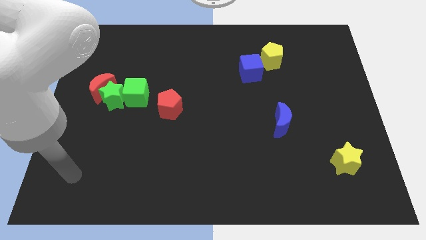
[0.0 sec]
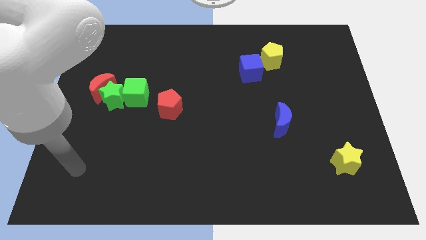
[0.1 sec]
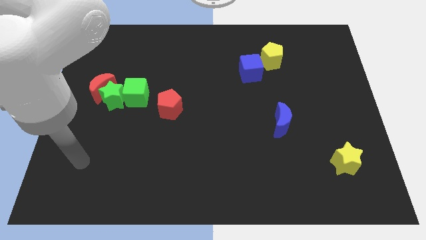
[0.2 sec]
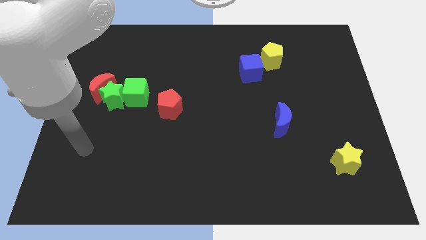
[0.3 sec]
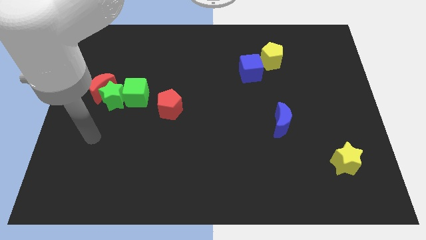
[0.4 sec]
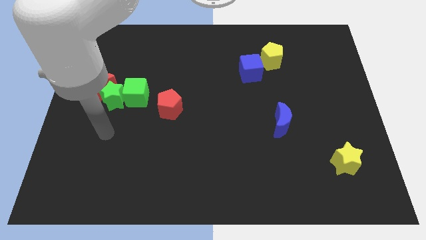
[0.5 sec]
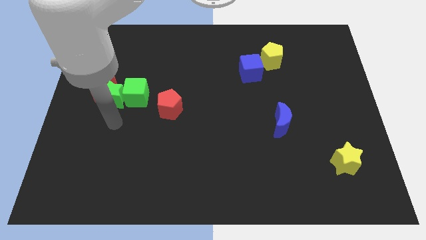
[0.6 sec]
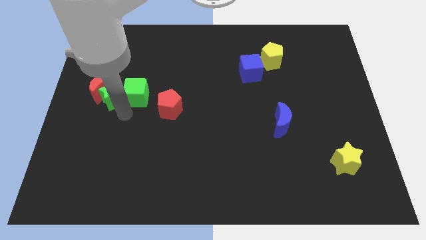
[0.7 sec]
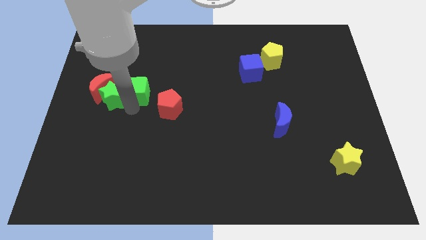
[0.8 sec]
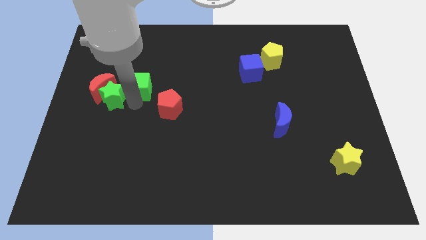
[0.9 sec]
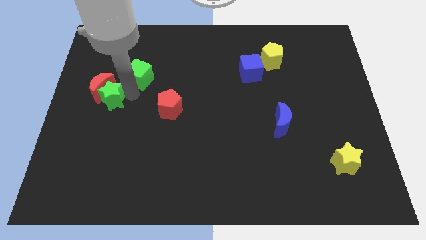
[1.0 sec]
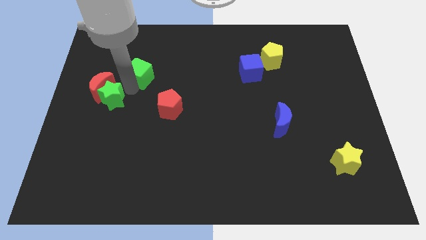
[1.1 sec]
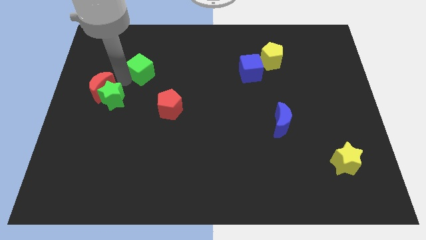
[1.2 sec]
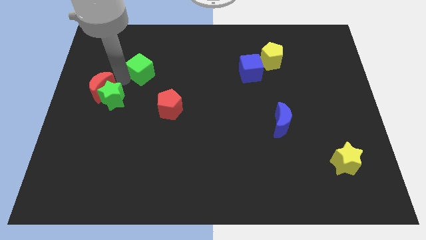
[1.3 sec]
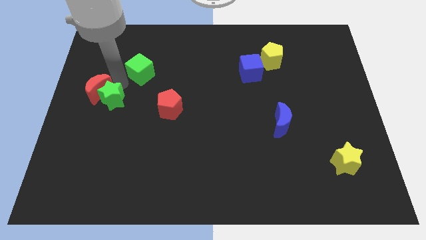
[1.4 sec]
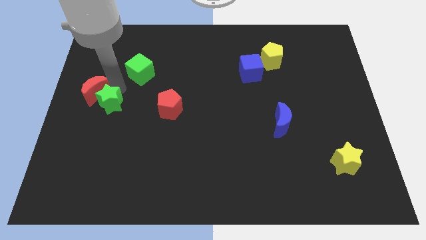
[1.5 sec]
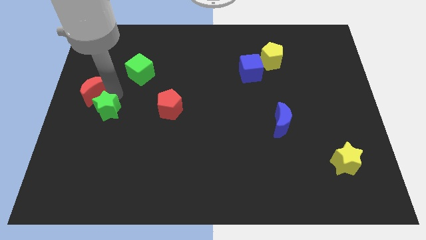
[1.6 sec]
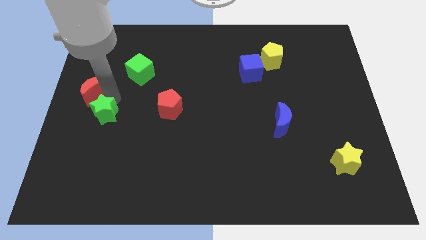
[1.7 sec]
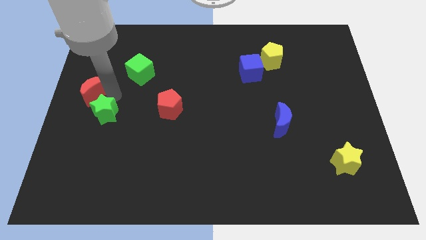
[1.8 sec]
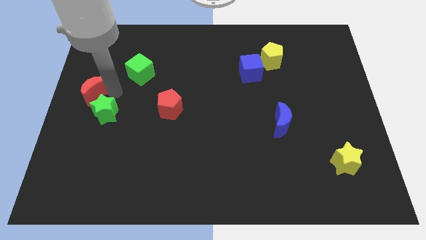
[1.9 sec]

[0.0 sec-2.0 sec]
move the green star away from the red moon and green cube

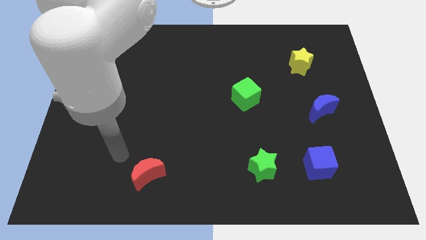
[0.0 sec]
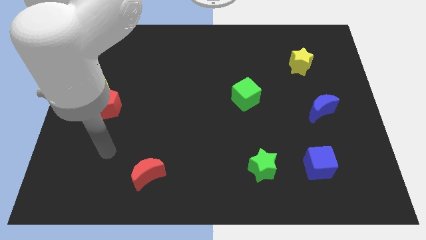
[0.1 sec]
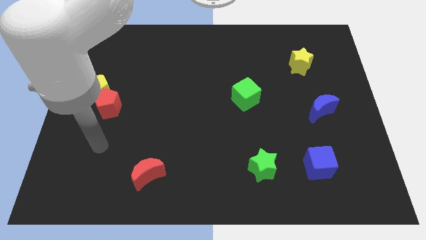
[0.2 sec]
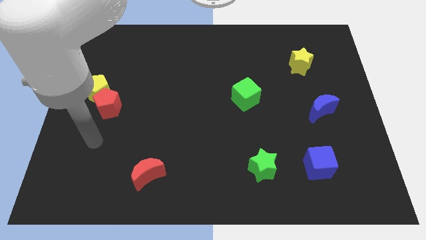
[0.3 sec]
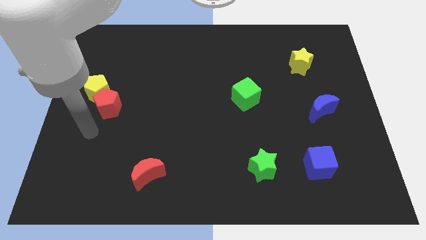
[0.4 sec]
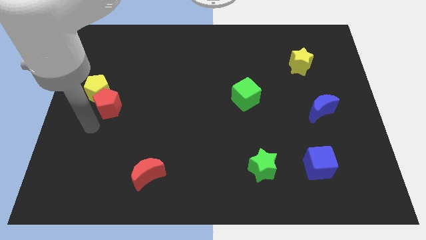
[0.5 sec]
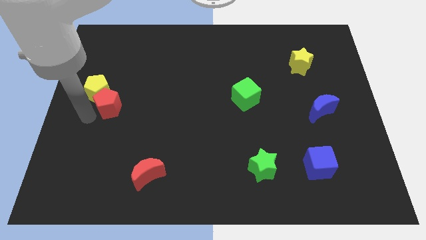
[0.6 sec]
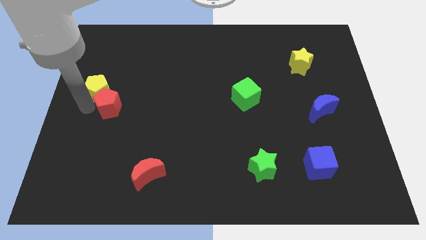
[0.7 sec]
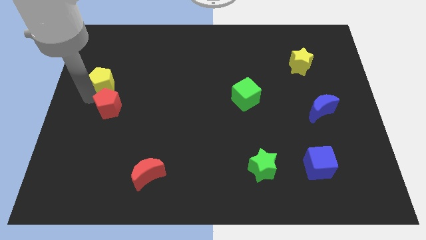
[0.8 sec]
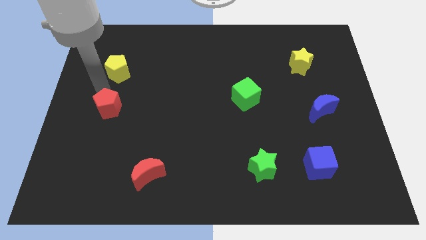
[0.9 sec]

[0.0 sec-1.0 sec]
separate the red pentagon from the yellow pentagon

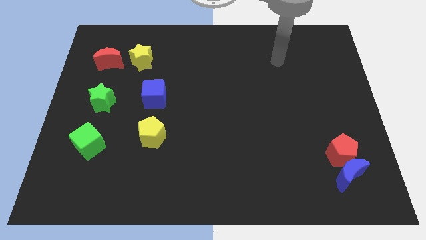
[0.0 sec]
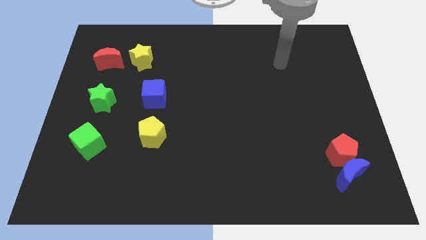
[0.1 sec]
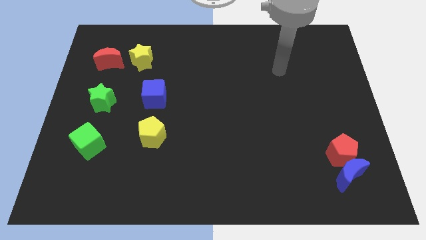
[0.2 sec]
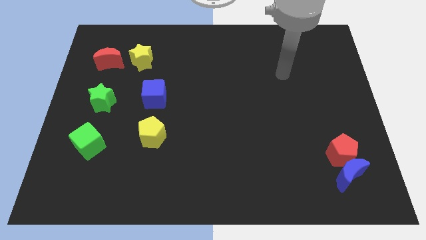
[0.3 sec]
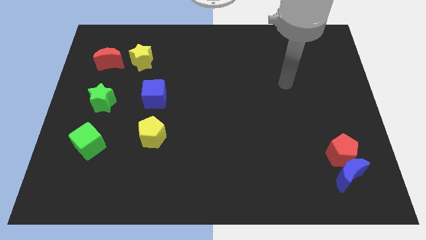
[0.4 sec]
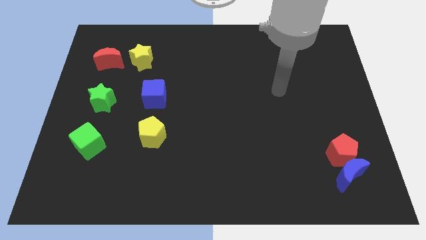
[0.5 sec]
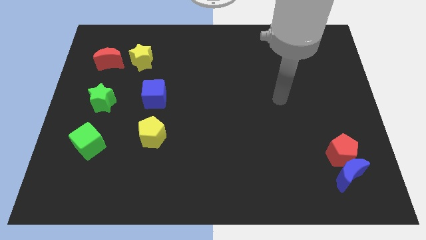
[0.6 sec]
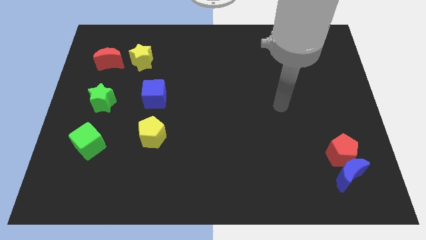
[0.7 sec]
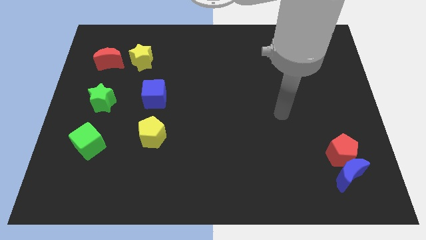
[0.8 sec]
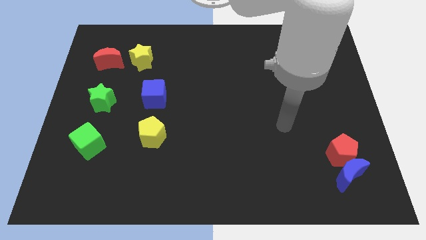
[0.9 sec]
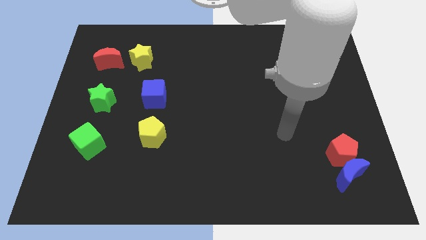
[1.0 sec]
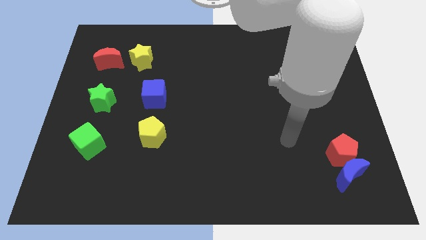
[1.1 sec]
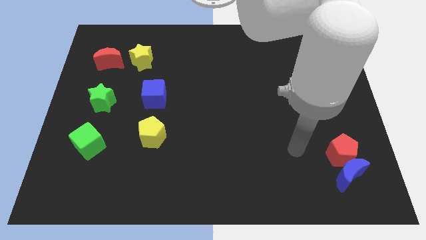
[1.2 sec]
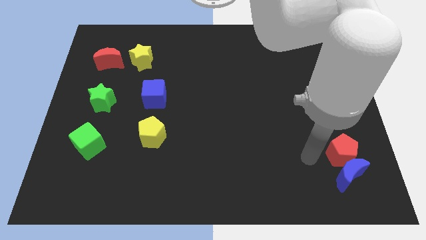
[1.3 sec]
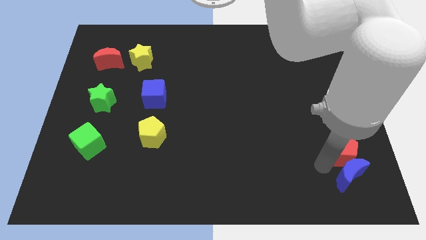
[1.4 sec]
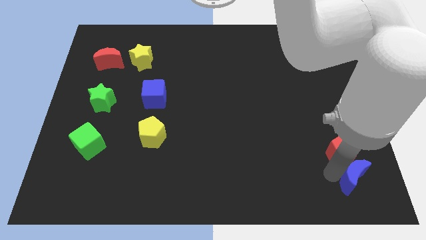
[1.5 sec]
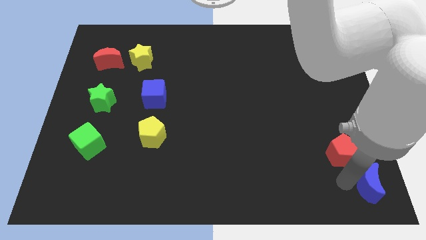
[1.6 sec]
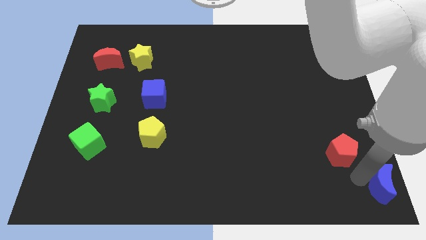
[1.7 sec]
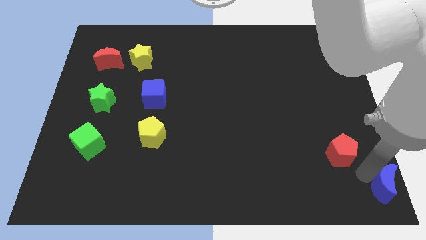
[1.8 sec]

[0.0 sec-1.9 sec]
separate the red pentagon from the blue moon

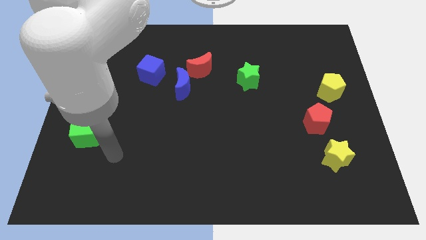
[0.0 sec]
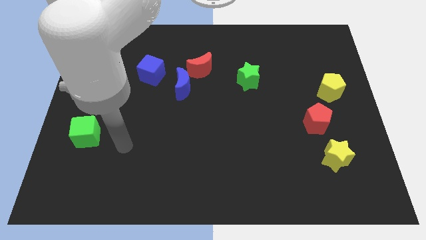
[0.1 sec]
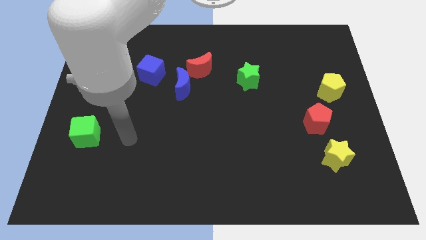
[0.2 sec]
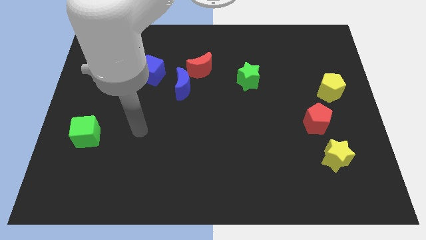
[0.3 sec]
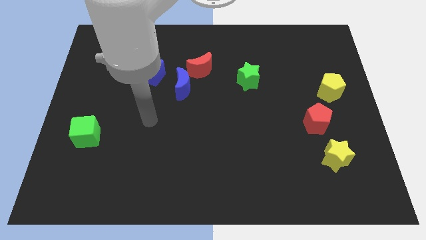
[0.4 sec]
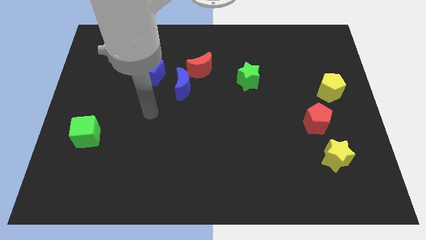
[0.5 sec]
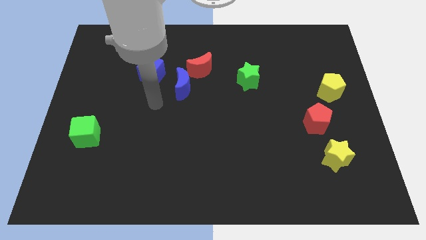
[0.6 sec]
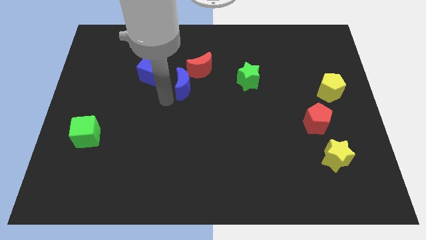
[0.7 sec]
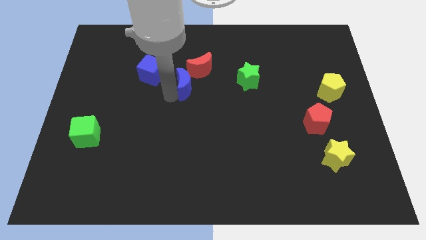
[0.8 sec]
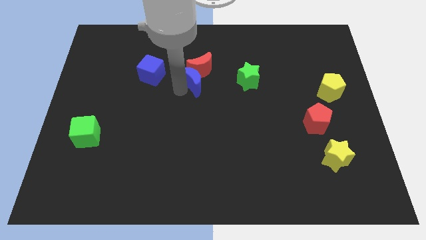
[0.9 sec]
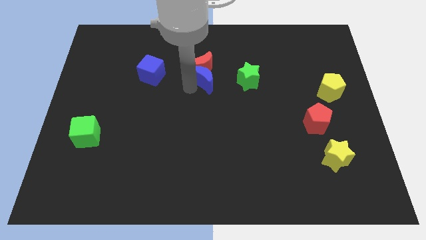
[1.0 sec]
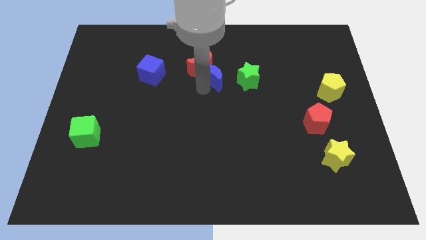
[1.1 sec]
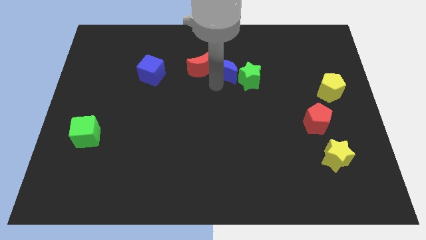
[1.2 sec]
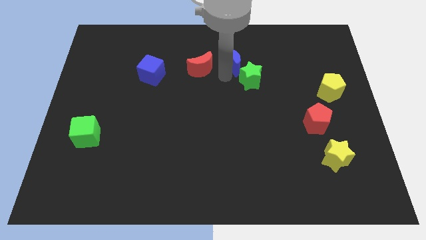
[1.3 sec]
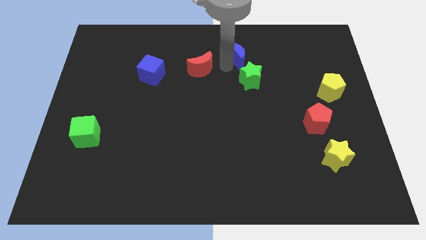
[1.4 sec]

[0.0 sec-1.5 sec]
pull the red moon apart from the blue moon

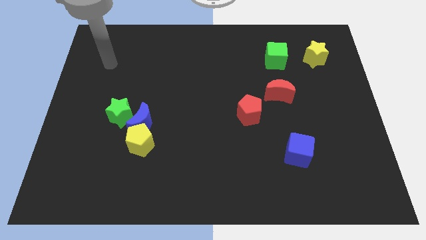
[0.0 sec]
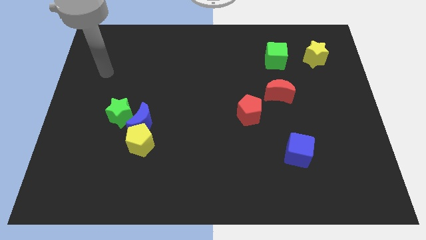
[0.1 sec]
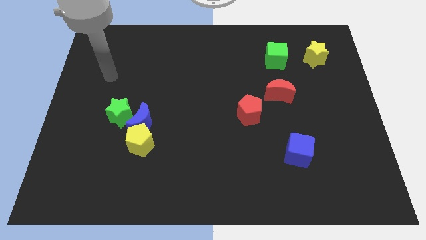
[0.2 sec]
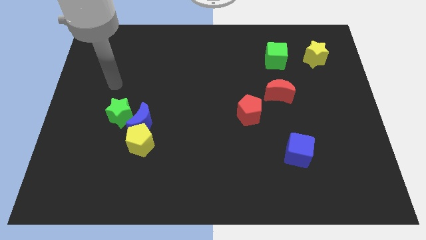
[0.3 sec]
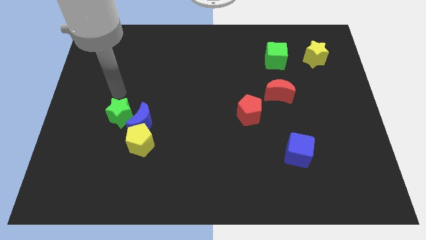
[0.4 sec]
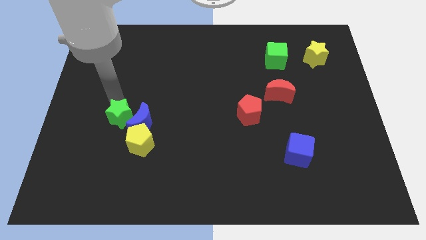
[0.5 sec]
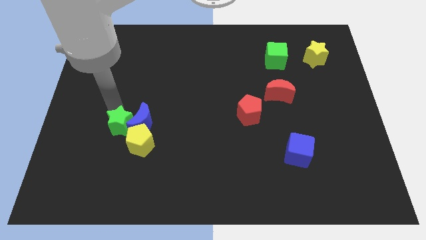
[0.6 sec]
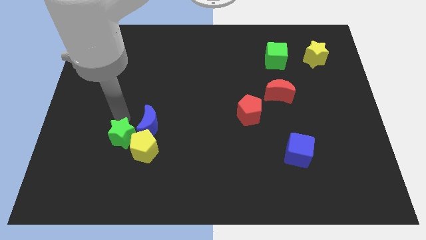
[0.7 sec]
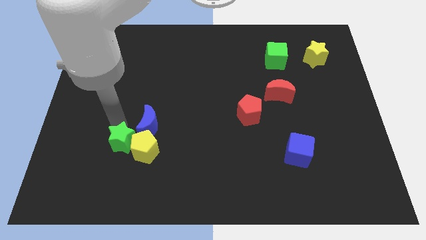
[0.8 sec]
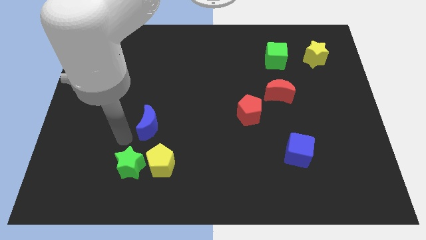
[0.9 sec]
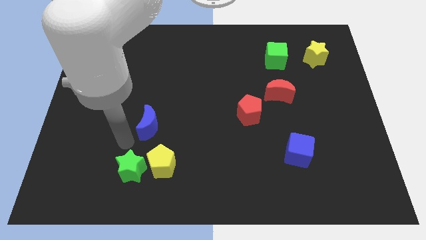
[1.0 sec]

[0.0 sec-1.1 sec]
pull the blue moon apart from the yellow pentagon and green star

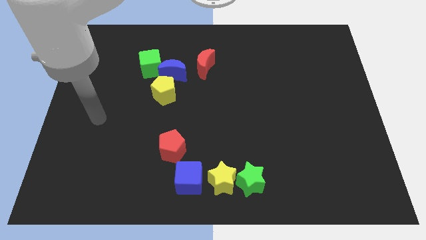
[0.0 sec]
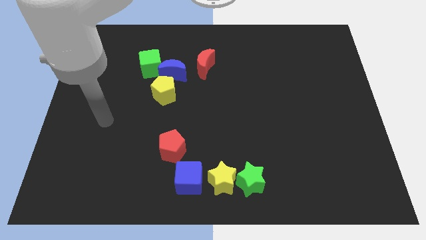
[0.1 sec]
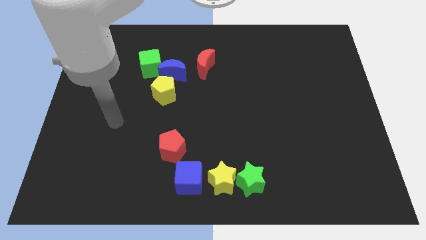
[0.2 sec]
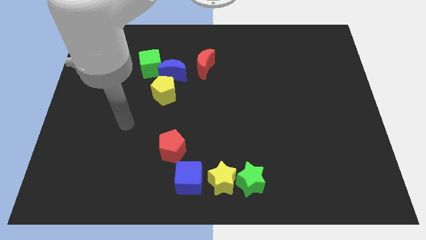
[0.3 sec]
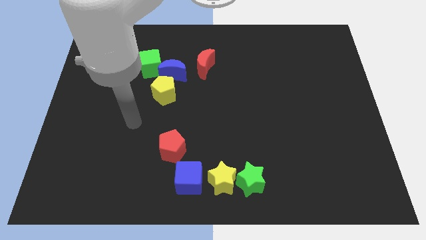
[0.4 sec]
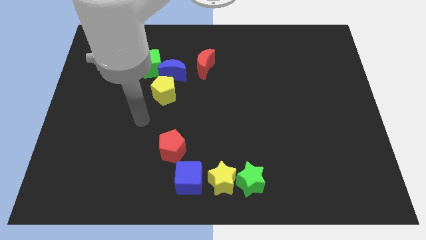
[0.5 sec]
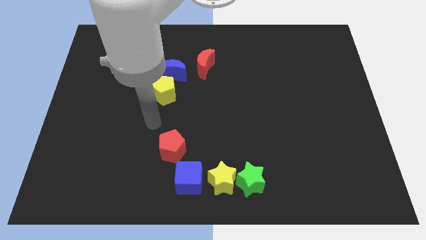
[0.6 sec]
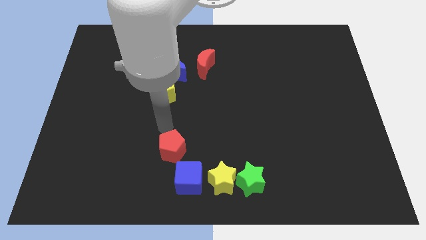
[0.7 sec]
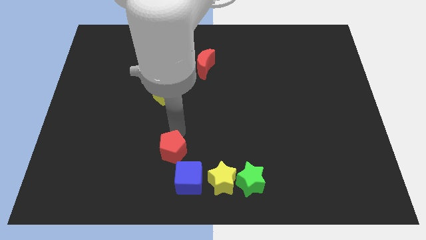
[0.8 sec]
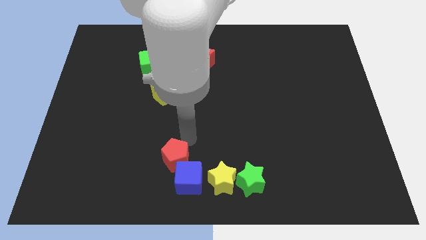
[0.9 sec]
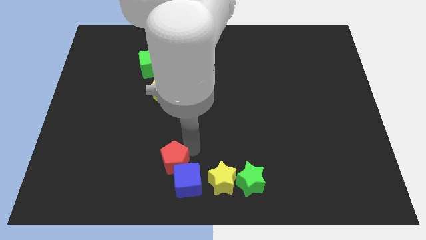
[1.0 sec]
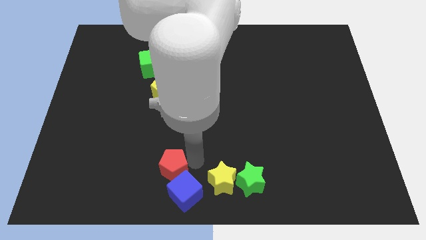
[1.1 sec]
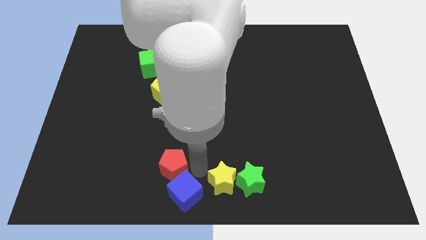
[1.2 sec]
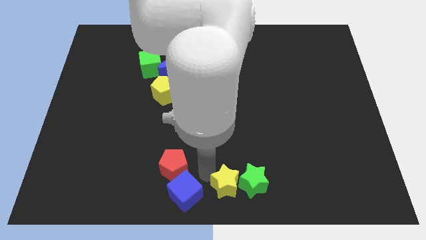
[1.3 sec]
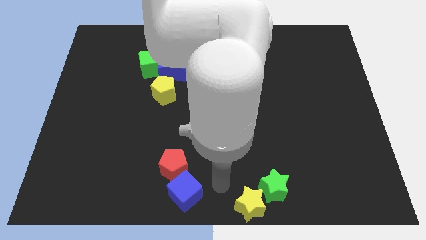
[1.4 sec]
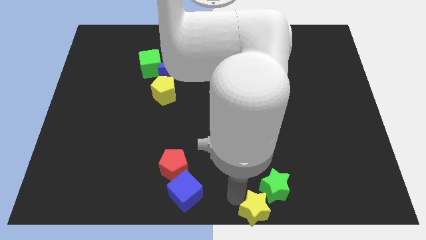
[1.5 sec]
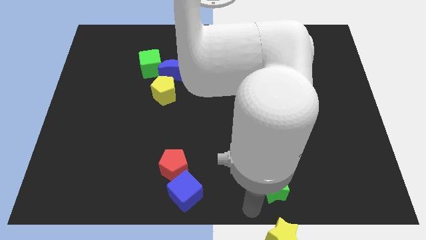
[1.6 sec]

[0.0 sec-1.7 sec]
pull the green star apart from the yellow star

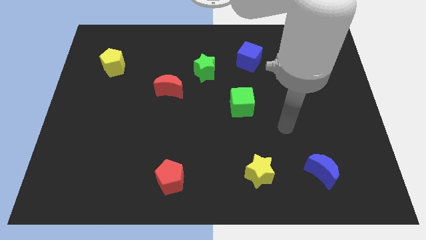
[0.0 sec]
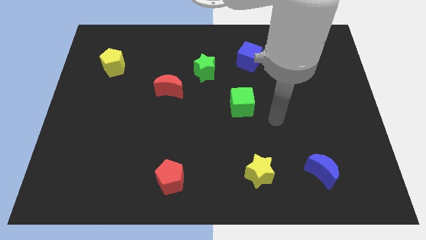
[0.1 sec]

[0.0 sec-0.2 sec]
pull the red moon apart from the green star
